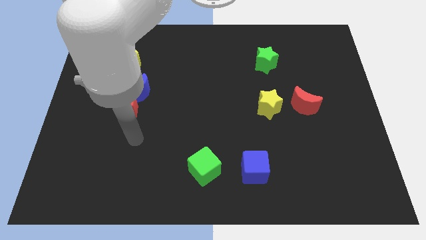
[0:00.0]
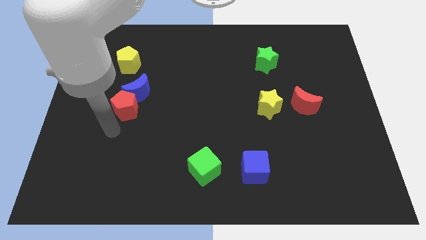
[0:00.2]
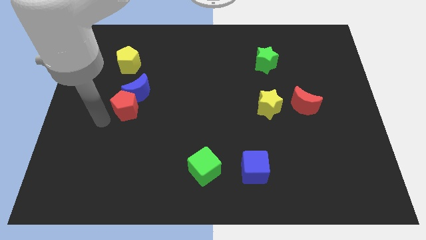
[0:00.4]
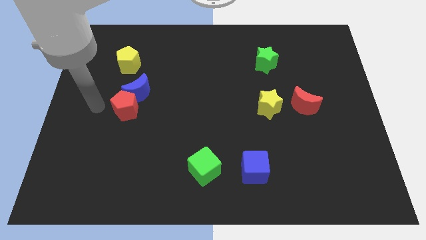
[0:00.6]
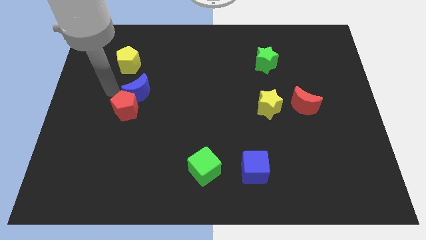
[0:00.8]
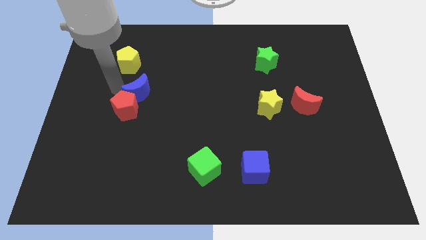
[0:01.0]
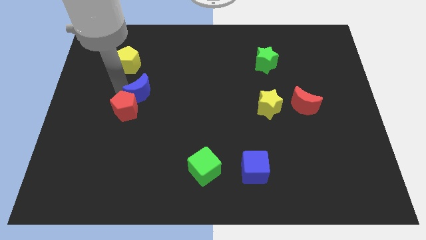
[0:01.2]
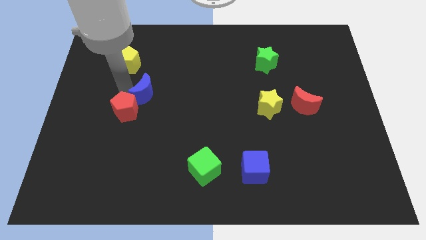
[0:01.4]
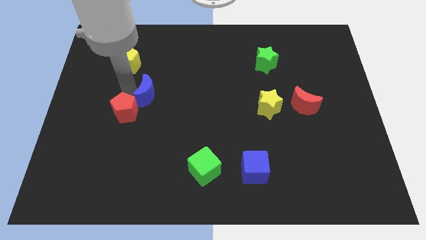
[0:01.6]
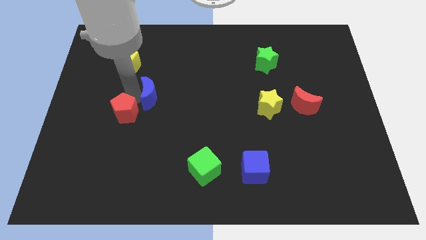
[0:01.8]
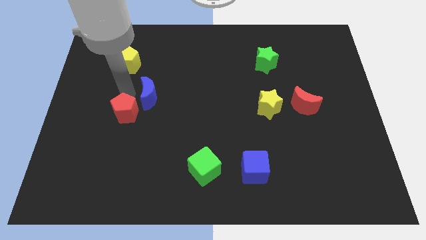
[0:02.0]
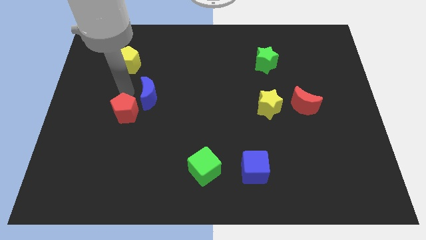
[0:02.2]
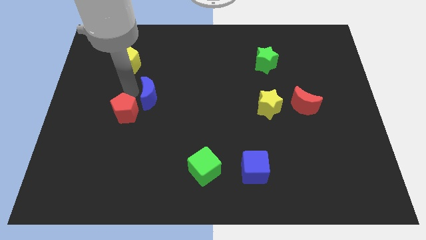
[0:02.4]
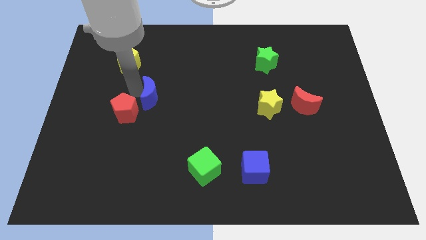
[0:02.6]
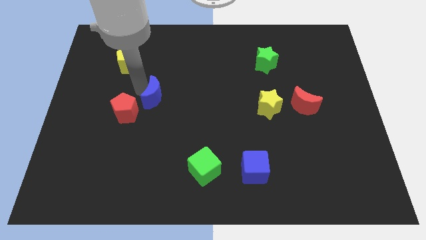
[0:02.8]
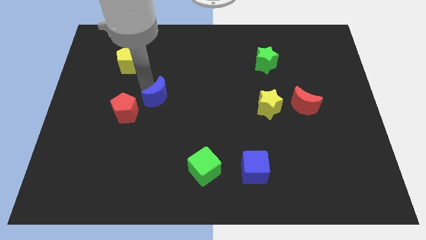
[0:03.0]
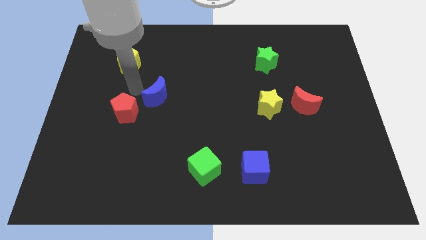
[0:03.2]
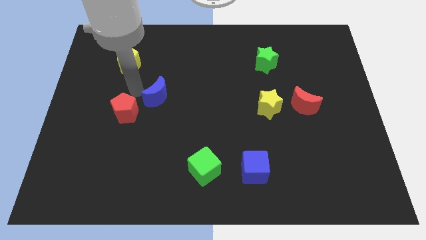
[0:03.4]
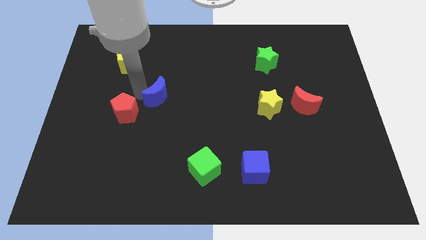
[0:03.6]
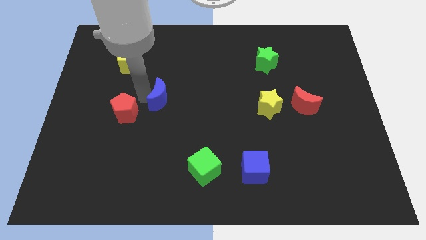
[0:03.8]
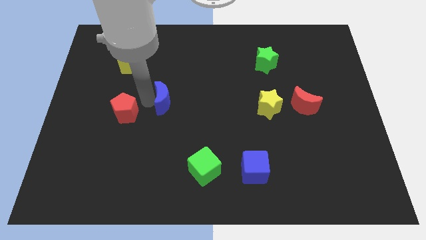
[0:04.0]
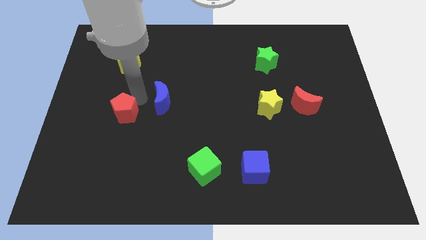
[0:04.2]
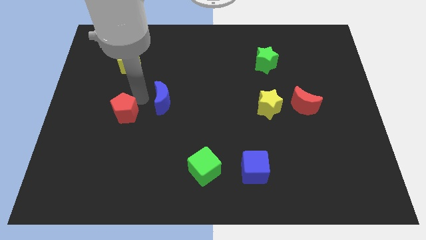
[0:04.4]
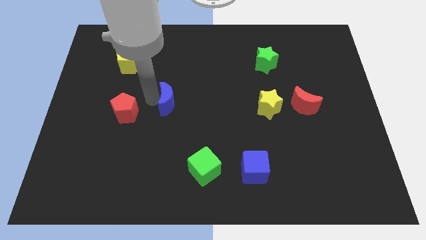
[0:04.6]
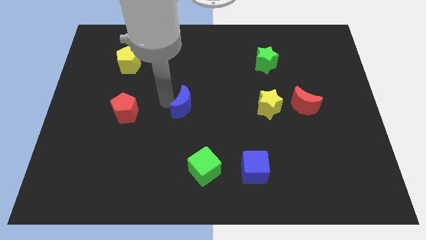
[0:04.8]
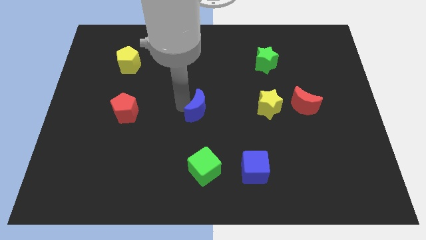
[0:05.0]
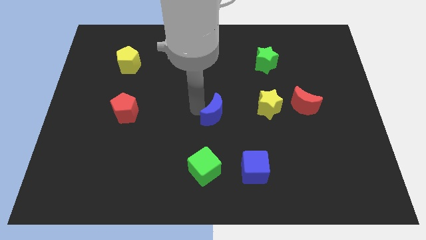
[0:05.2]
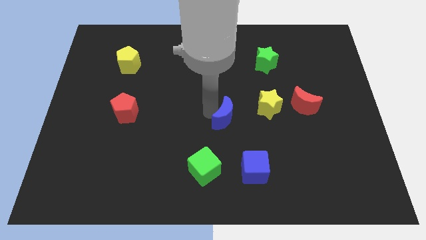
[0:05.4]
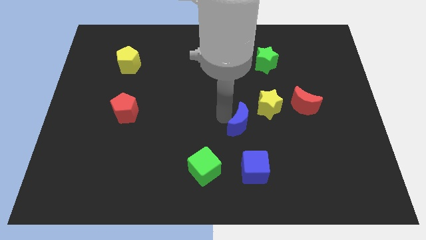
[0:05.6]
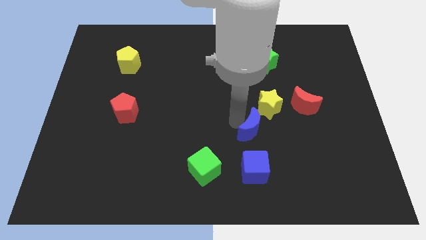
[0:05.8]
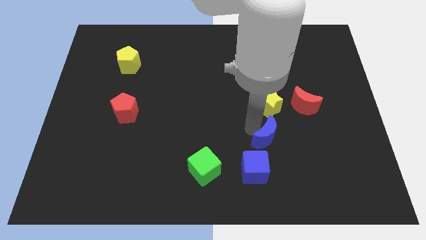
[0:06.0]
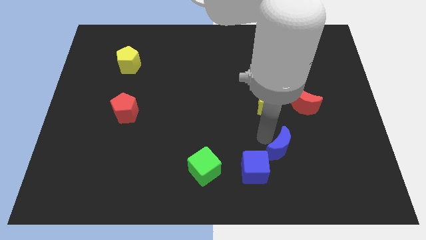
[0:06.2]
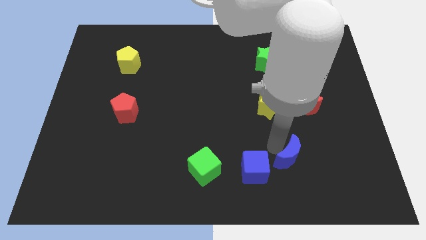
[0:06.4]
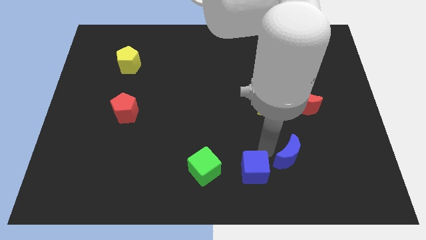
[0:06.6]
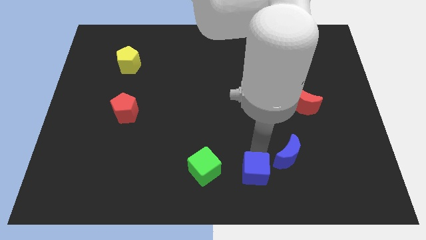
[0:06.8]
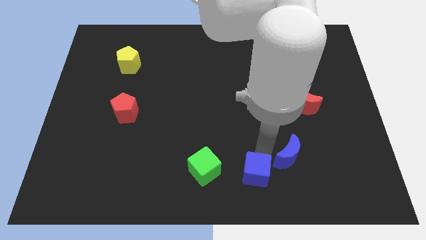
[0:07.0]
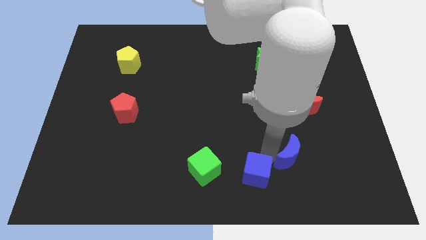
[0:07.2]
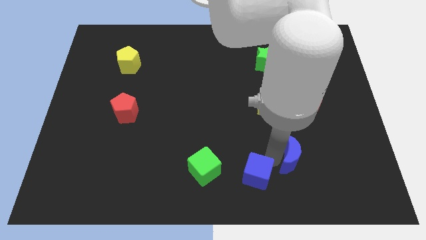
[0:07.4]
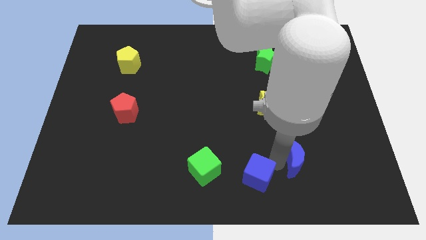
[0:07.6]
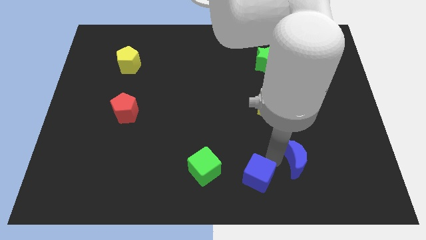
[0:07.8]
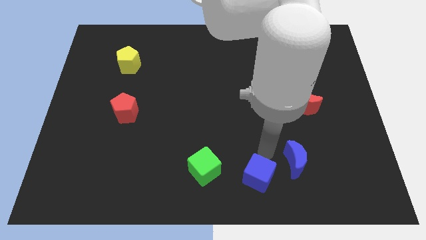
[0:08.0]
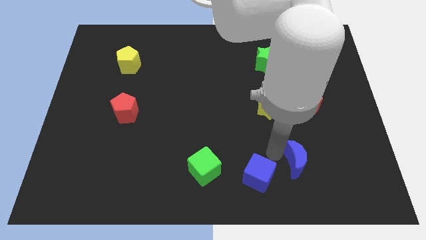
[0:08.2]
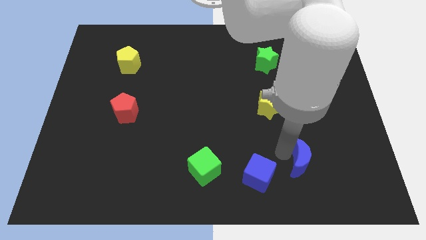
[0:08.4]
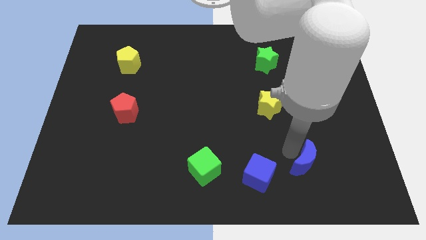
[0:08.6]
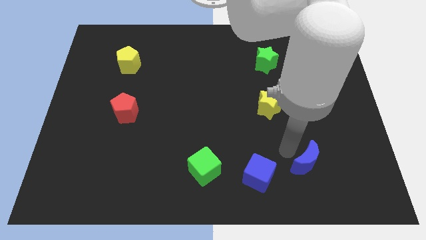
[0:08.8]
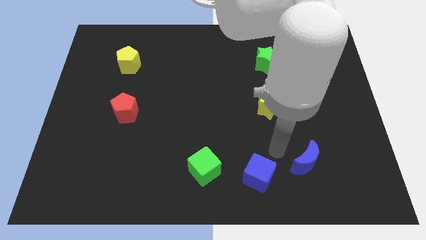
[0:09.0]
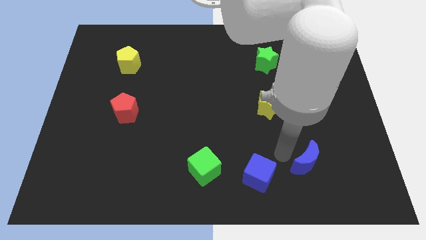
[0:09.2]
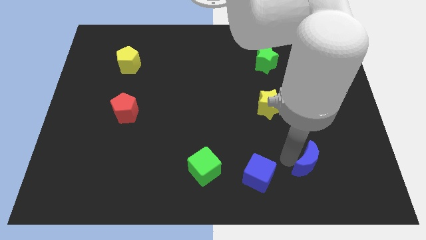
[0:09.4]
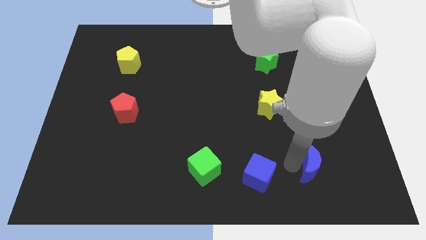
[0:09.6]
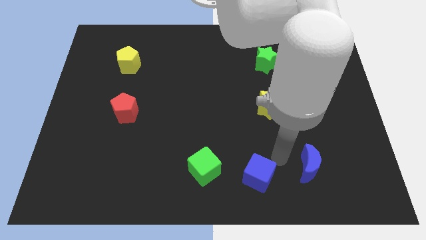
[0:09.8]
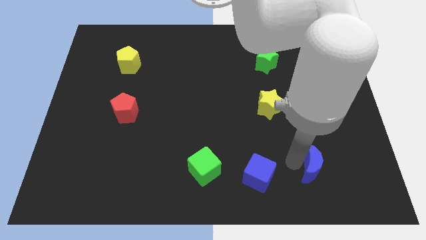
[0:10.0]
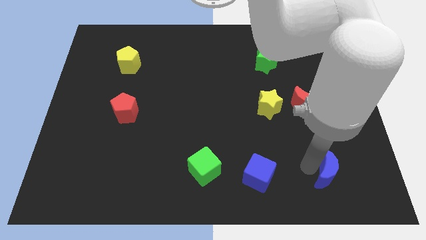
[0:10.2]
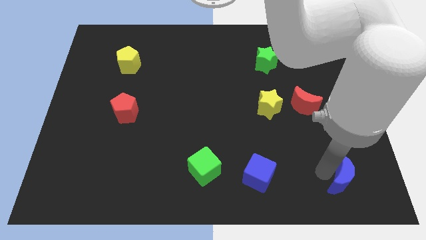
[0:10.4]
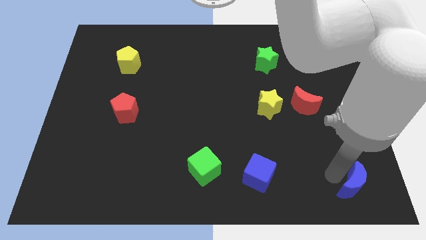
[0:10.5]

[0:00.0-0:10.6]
move the blue moon to the lower right corner
